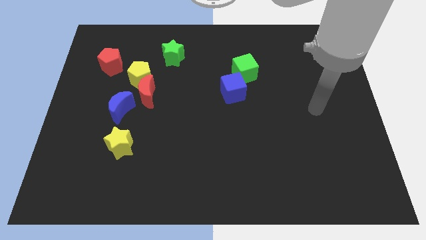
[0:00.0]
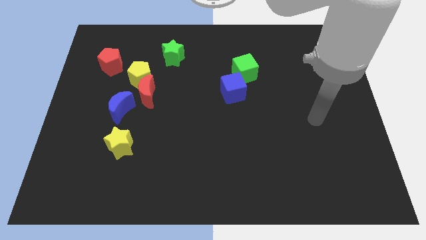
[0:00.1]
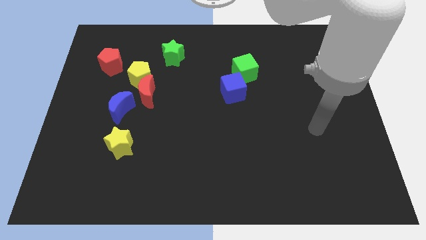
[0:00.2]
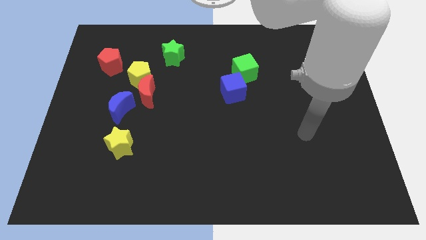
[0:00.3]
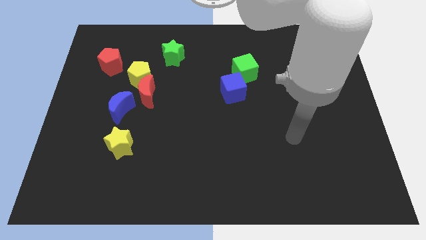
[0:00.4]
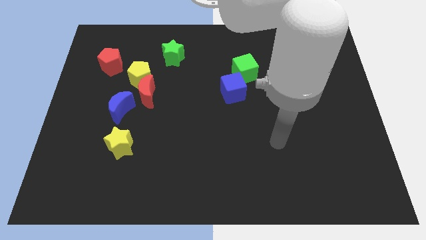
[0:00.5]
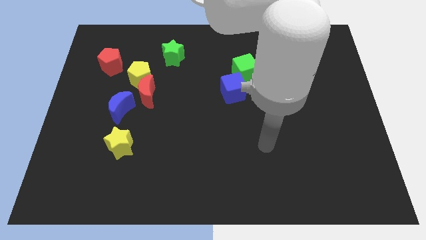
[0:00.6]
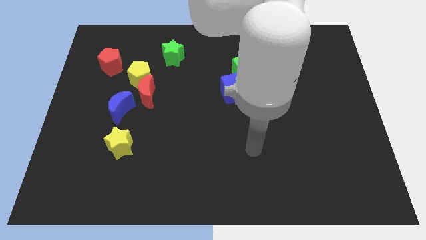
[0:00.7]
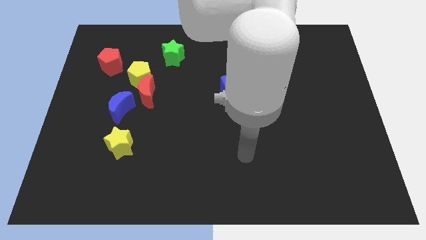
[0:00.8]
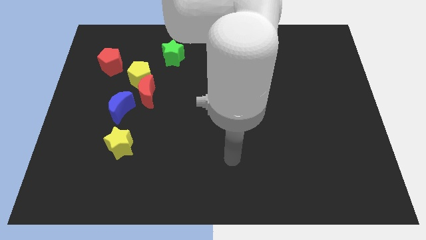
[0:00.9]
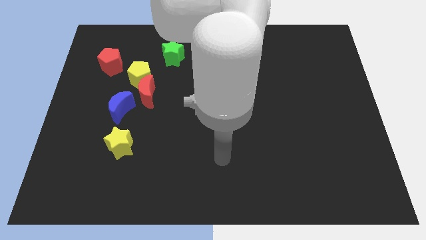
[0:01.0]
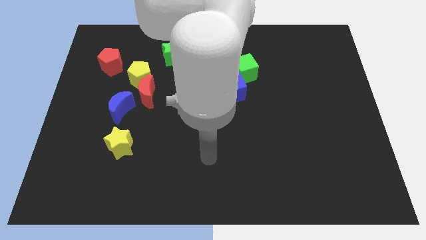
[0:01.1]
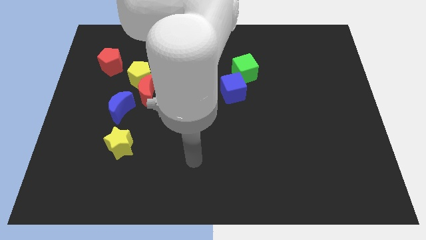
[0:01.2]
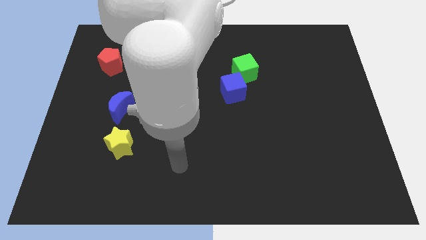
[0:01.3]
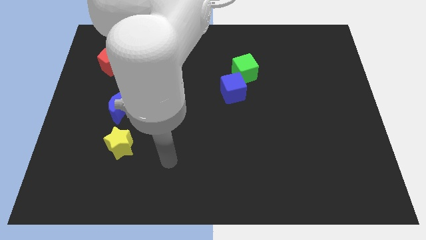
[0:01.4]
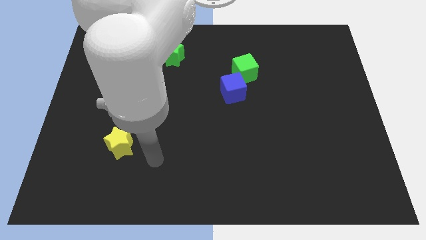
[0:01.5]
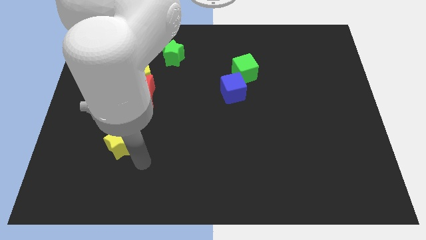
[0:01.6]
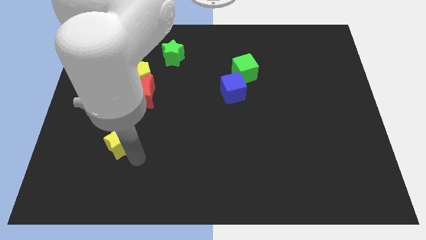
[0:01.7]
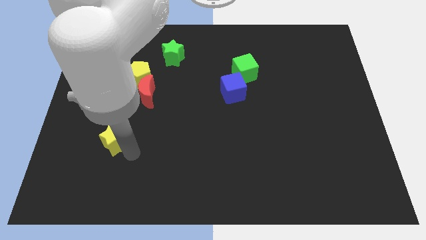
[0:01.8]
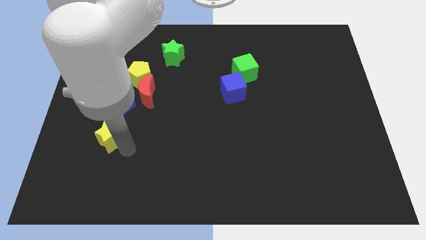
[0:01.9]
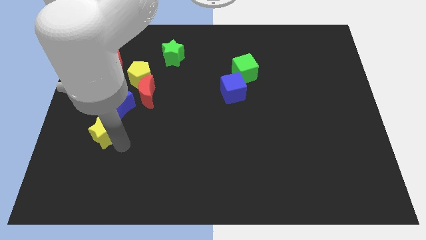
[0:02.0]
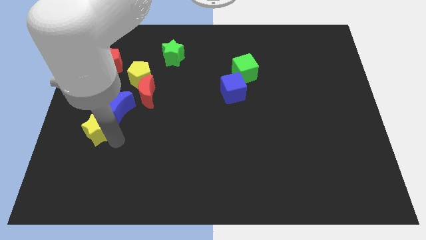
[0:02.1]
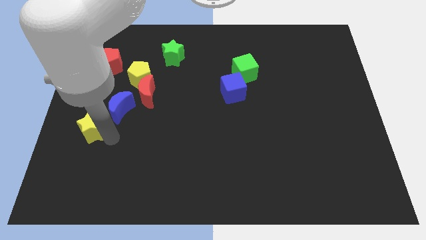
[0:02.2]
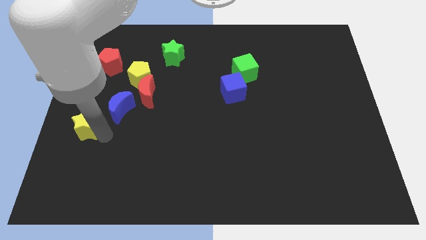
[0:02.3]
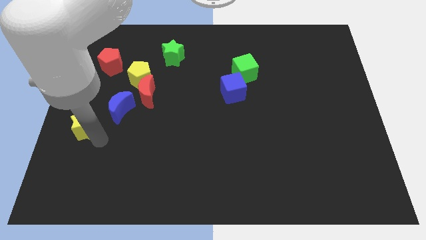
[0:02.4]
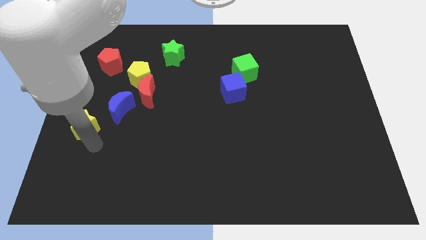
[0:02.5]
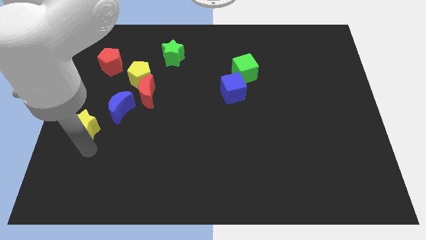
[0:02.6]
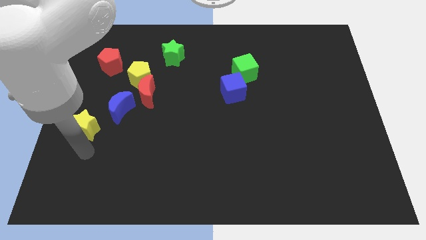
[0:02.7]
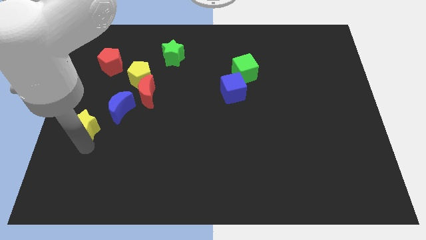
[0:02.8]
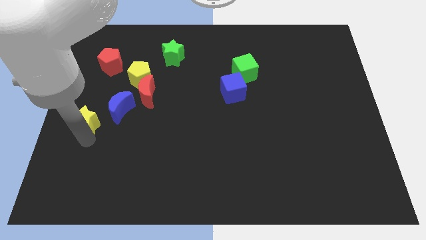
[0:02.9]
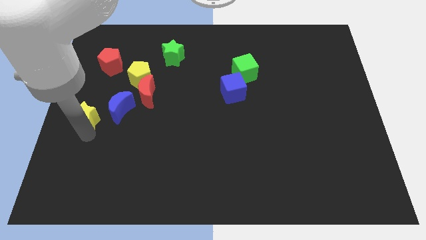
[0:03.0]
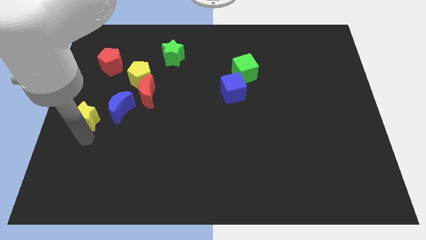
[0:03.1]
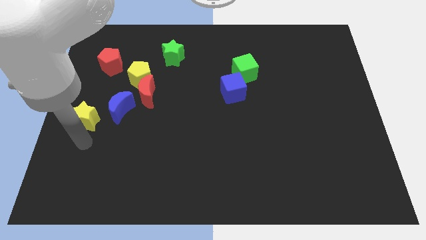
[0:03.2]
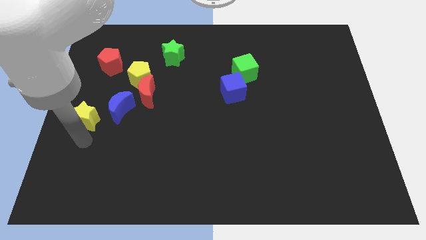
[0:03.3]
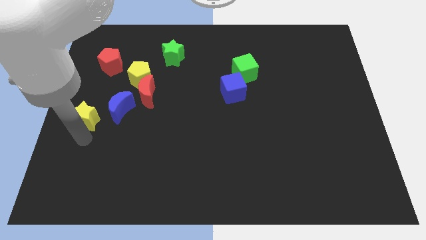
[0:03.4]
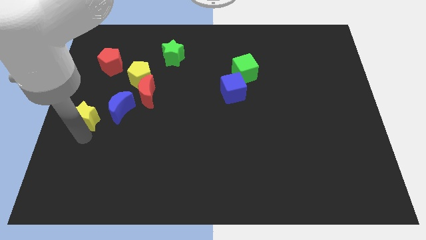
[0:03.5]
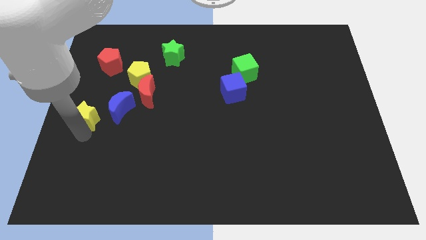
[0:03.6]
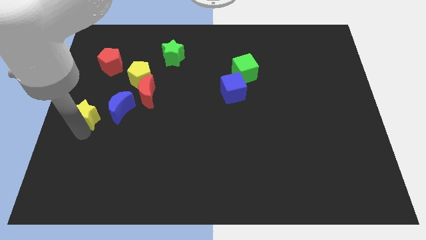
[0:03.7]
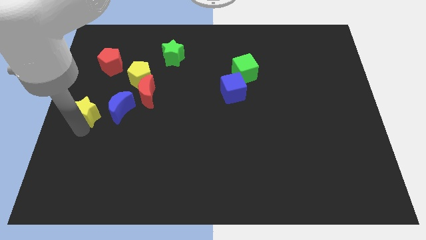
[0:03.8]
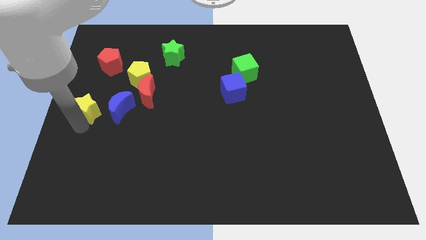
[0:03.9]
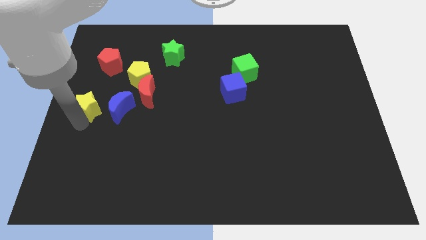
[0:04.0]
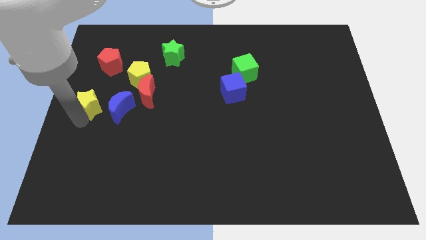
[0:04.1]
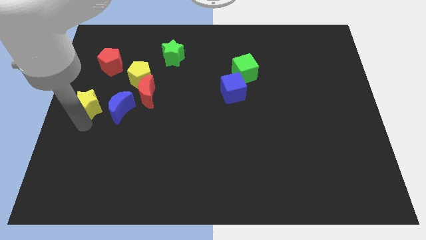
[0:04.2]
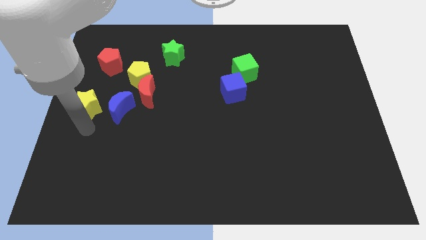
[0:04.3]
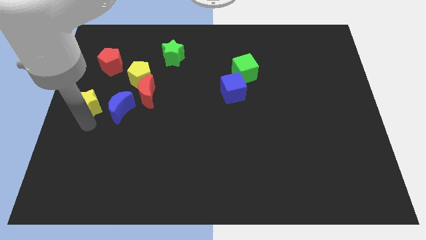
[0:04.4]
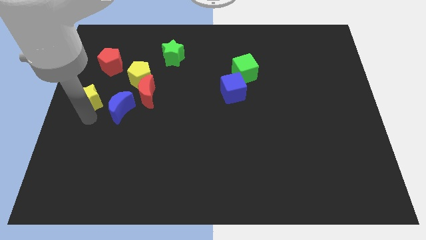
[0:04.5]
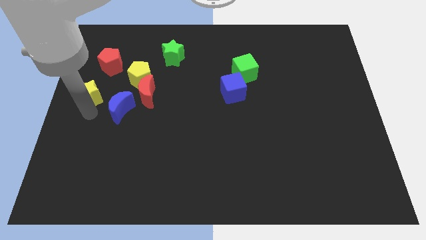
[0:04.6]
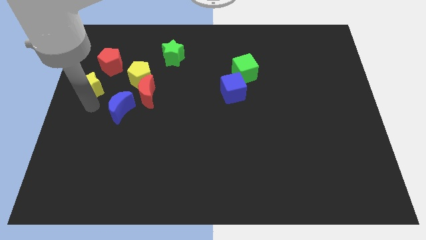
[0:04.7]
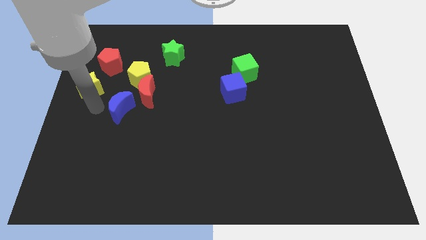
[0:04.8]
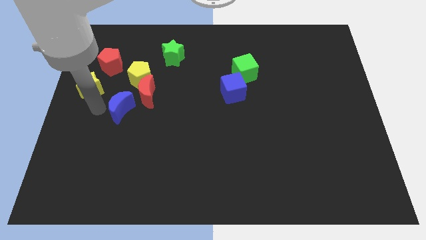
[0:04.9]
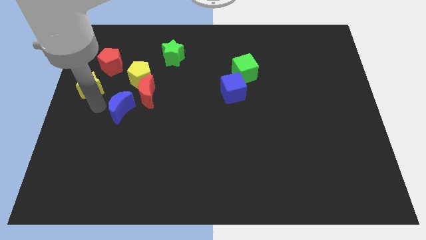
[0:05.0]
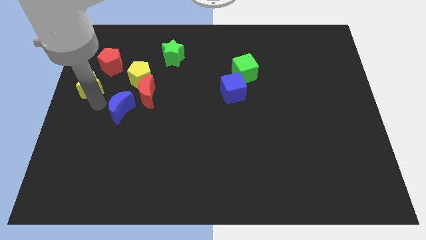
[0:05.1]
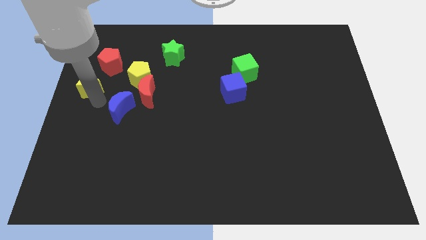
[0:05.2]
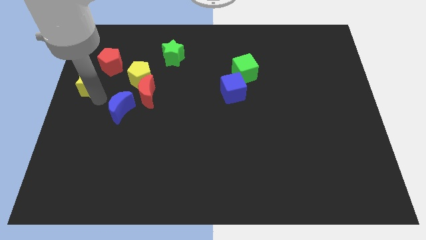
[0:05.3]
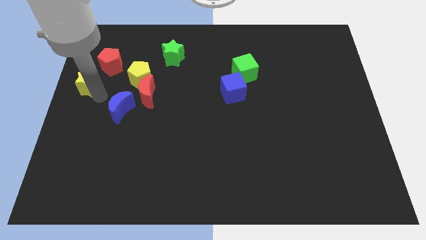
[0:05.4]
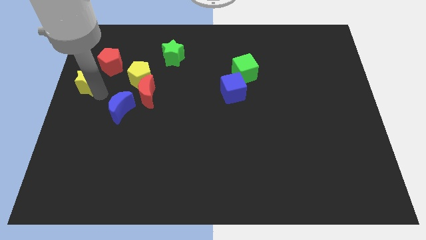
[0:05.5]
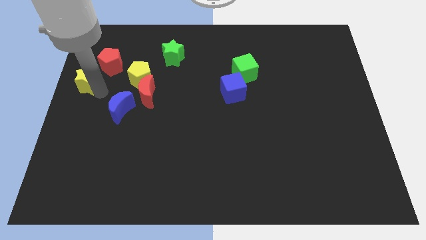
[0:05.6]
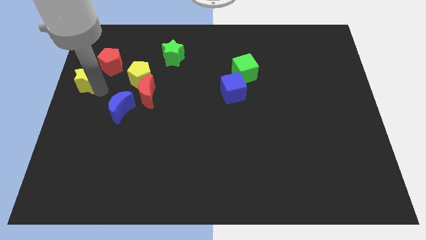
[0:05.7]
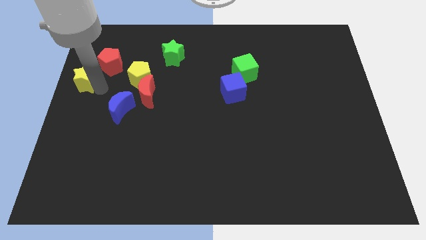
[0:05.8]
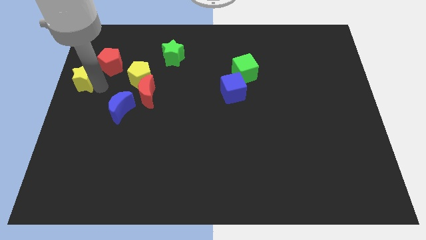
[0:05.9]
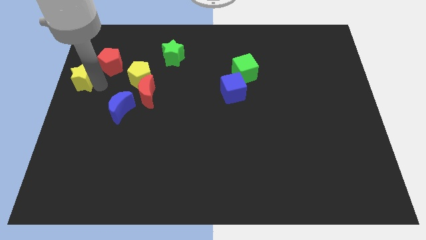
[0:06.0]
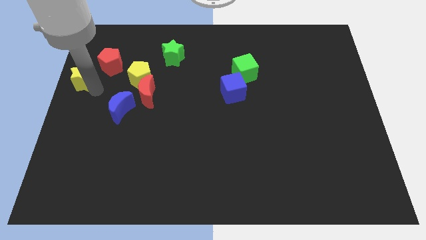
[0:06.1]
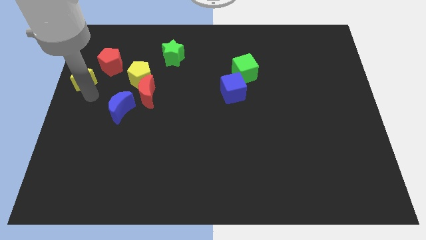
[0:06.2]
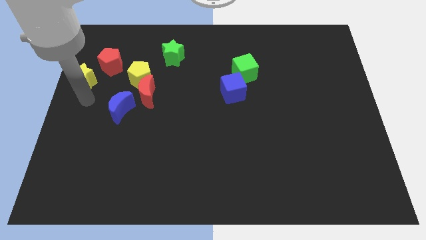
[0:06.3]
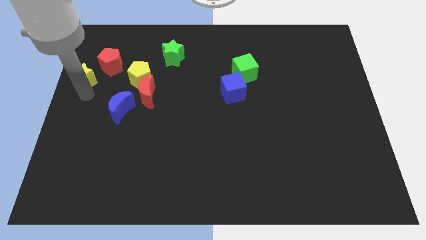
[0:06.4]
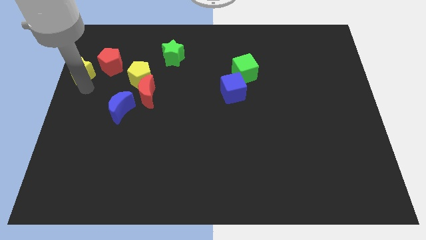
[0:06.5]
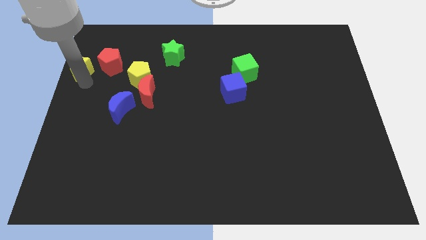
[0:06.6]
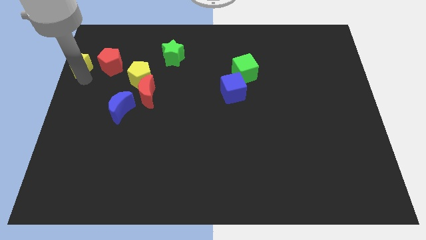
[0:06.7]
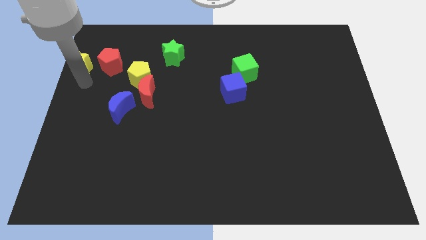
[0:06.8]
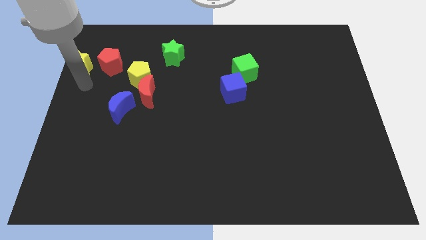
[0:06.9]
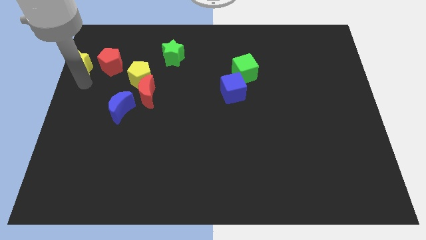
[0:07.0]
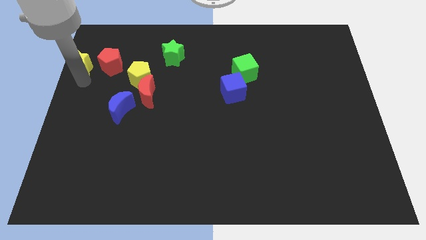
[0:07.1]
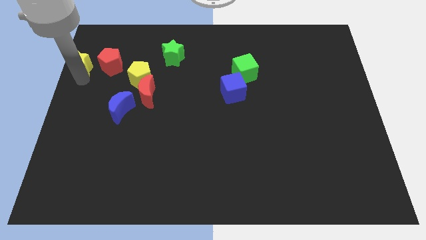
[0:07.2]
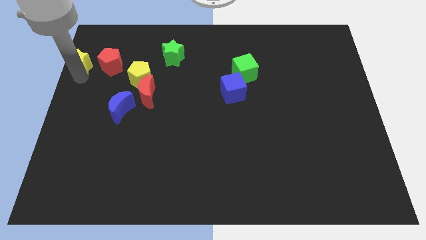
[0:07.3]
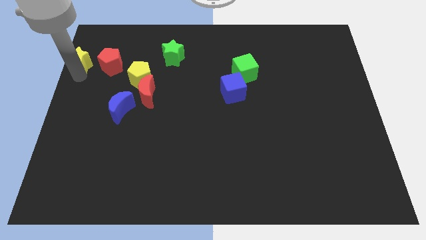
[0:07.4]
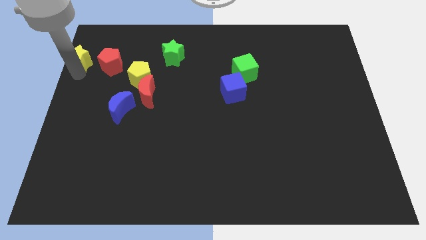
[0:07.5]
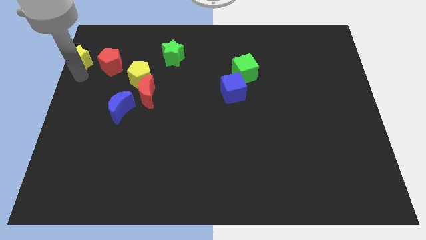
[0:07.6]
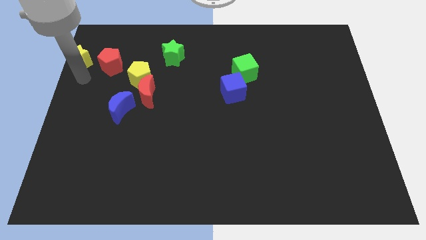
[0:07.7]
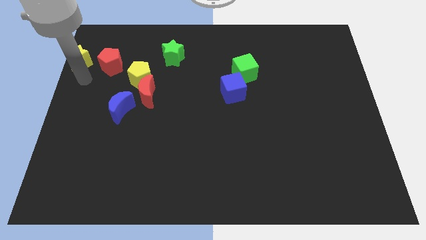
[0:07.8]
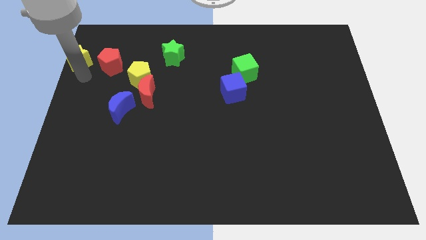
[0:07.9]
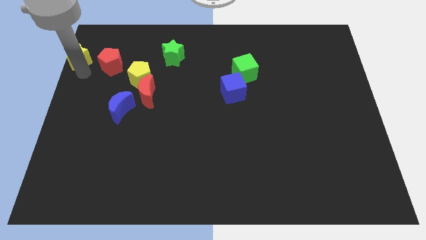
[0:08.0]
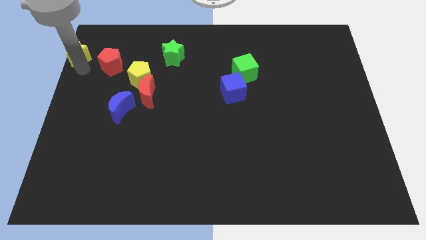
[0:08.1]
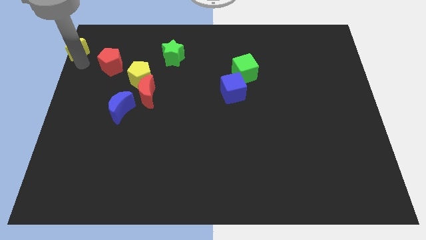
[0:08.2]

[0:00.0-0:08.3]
put the yellow star to the top left of the board
